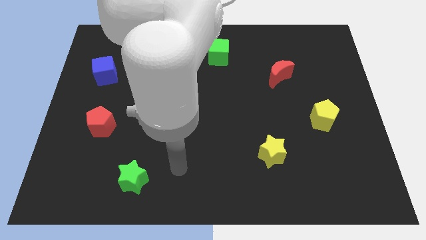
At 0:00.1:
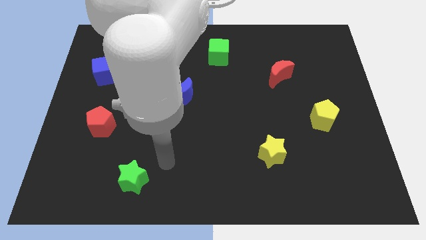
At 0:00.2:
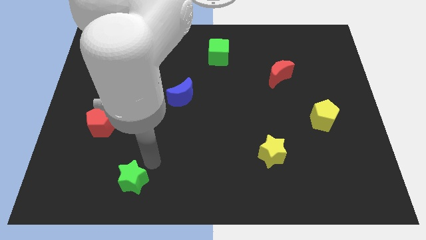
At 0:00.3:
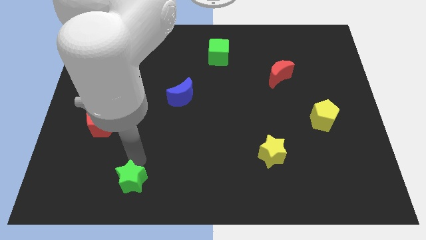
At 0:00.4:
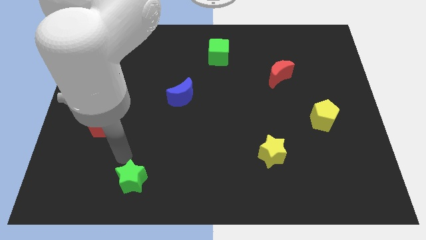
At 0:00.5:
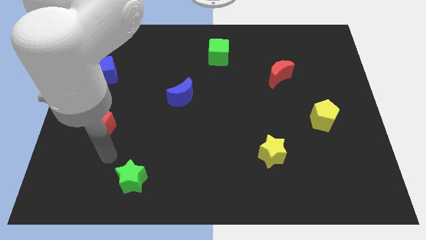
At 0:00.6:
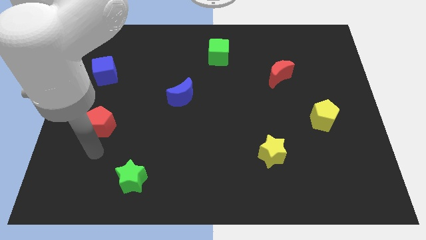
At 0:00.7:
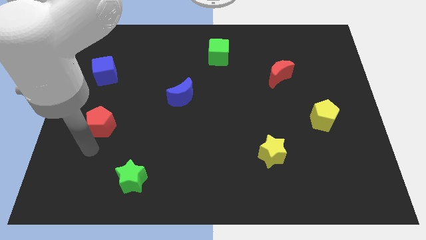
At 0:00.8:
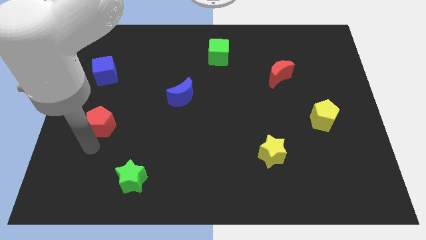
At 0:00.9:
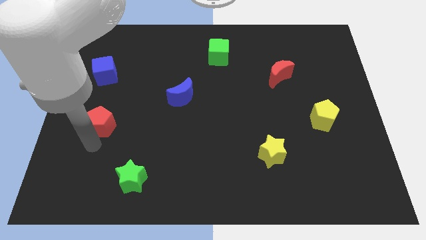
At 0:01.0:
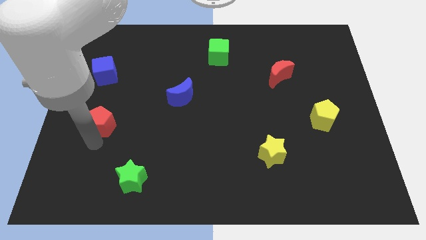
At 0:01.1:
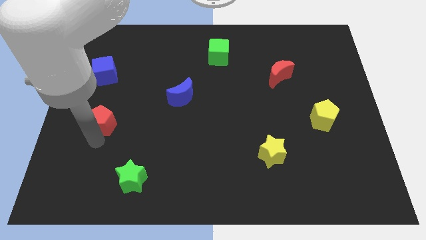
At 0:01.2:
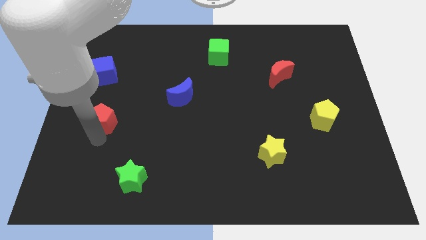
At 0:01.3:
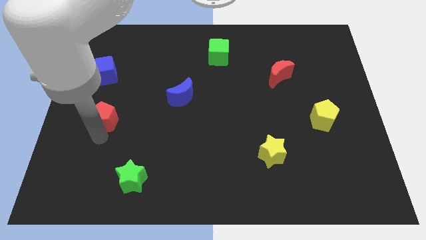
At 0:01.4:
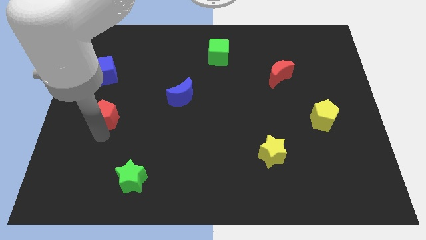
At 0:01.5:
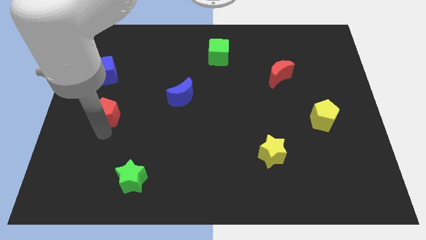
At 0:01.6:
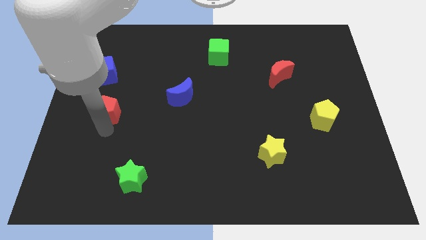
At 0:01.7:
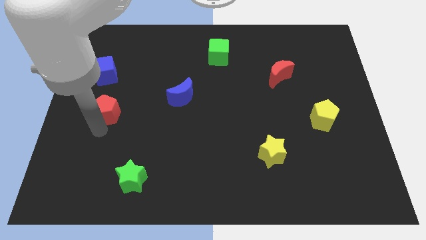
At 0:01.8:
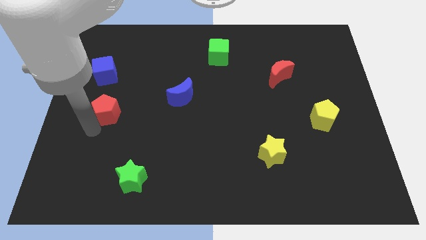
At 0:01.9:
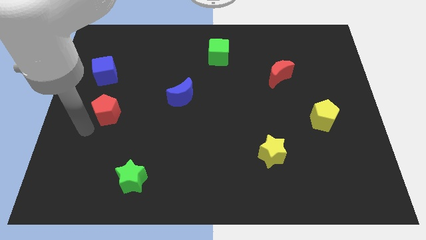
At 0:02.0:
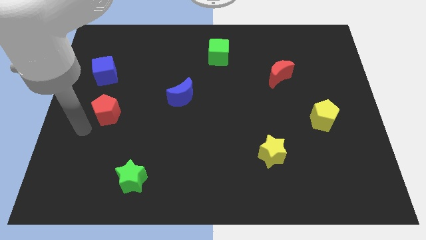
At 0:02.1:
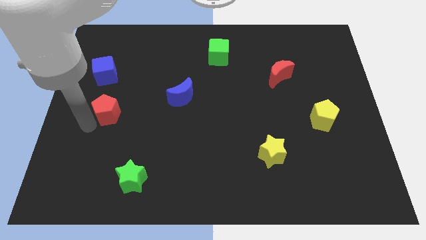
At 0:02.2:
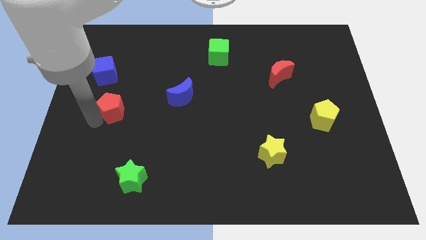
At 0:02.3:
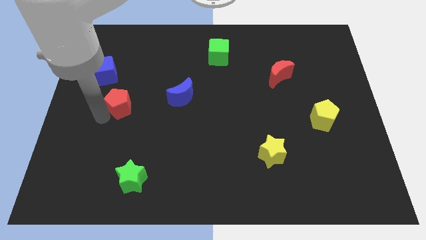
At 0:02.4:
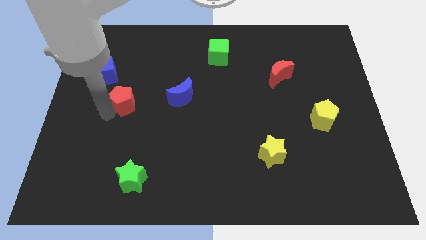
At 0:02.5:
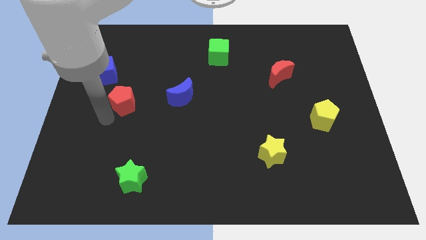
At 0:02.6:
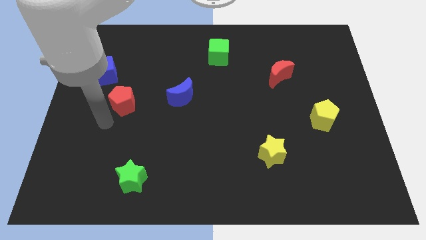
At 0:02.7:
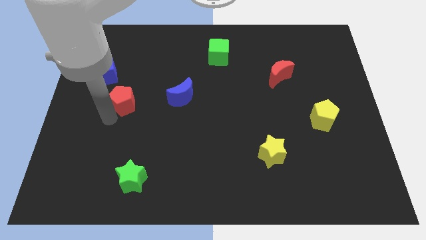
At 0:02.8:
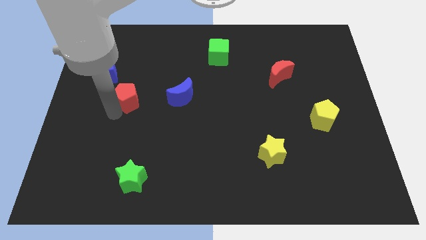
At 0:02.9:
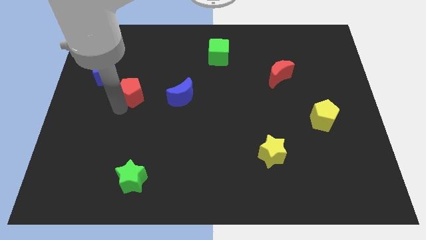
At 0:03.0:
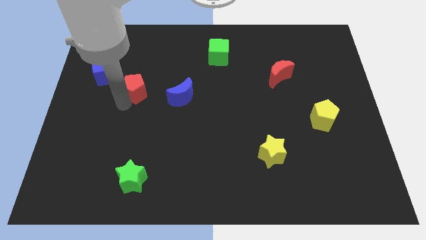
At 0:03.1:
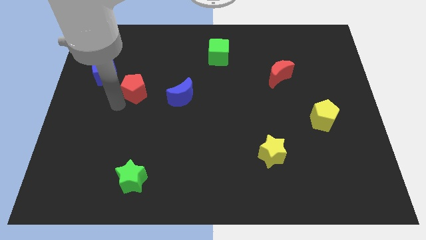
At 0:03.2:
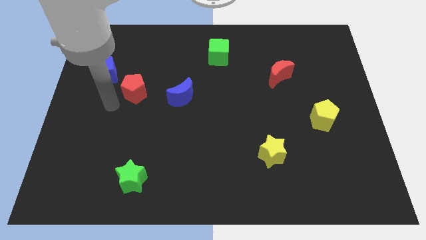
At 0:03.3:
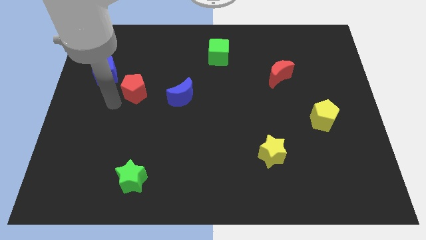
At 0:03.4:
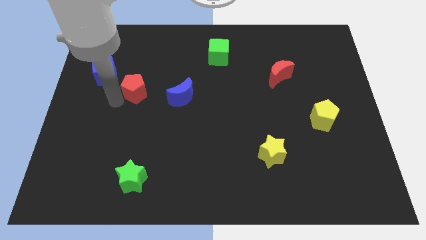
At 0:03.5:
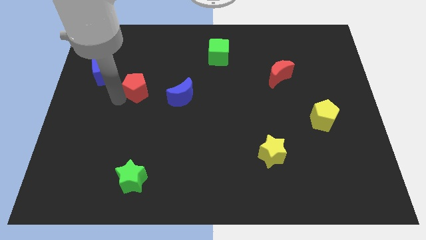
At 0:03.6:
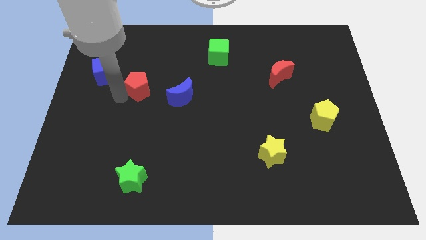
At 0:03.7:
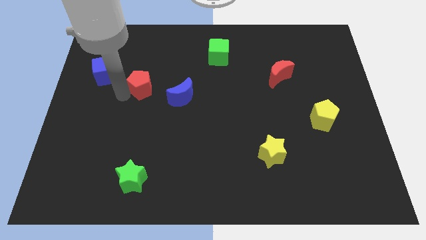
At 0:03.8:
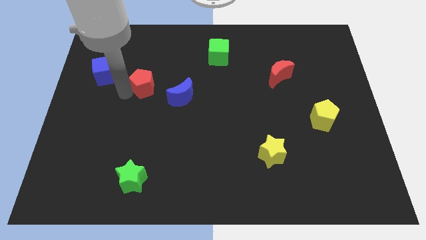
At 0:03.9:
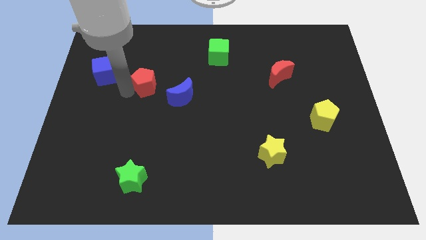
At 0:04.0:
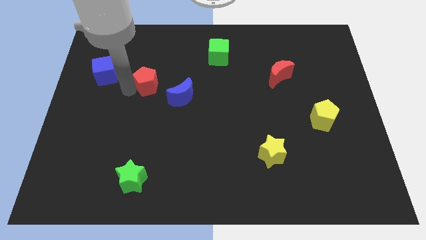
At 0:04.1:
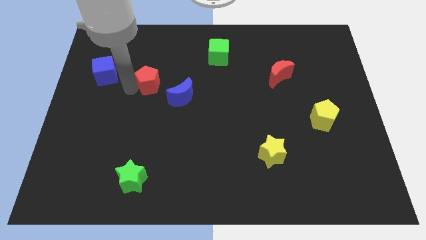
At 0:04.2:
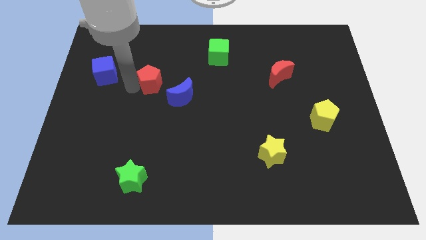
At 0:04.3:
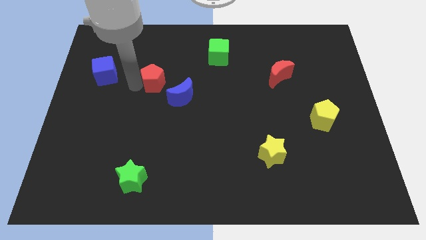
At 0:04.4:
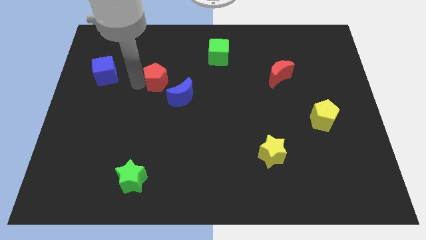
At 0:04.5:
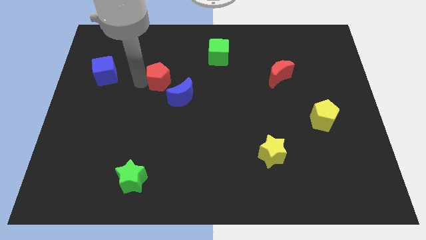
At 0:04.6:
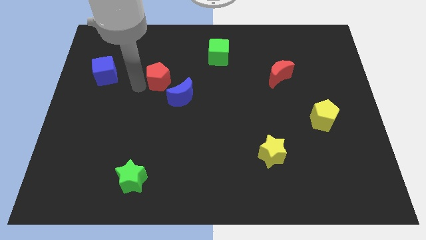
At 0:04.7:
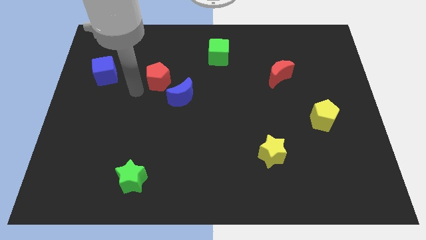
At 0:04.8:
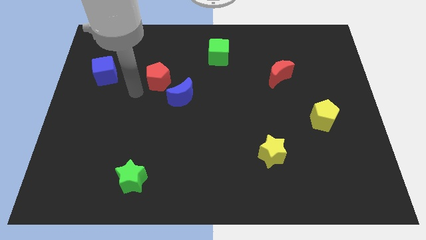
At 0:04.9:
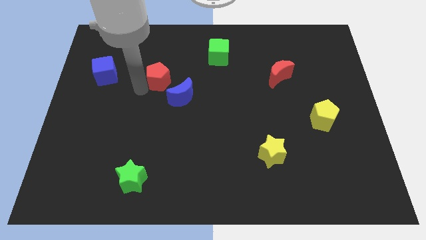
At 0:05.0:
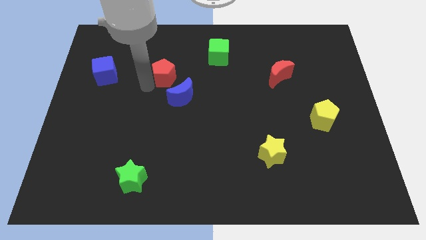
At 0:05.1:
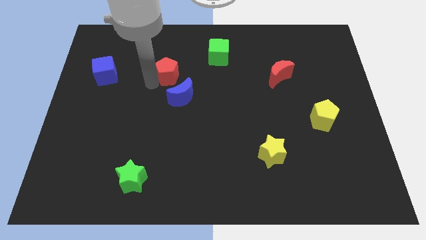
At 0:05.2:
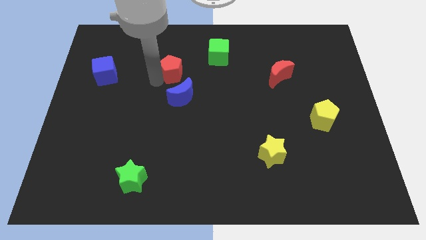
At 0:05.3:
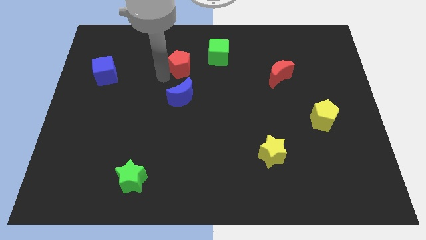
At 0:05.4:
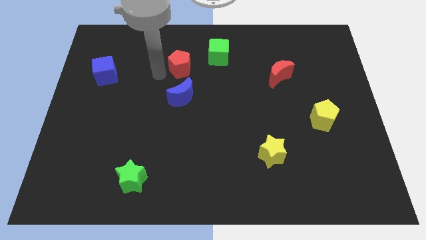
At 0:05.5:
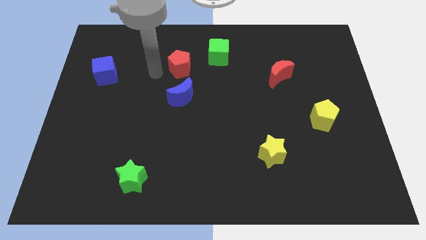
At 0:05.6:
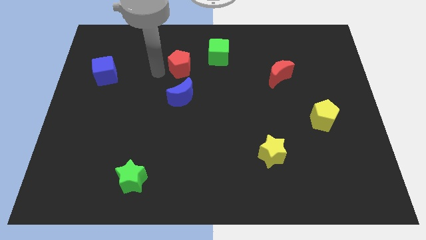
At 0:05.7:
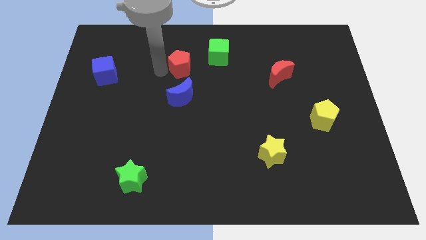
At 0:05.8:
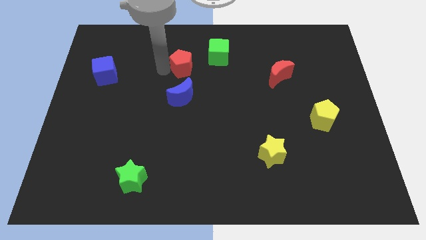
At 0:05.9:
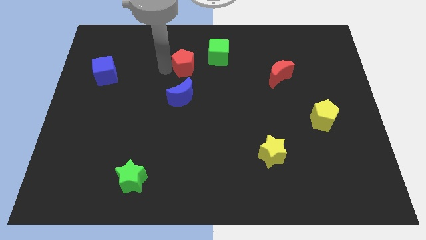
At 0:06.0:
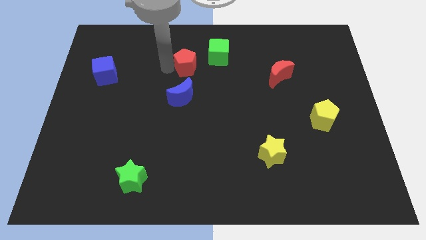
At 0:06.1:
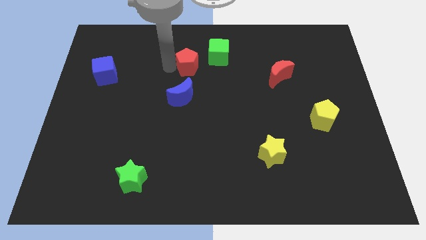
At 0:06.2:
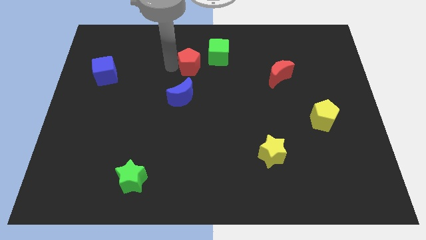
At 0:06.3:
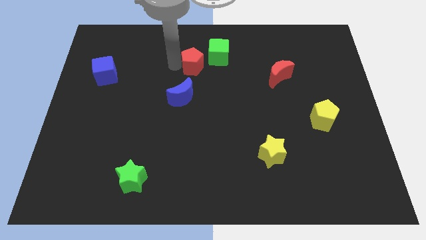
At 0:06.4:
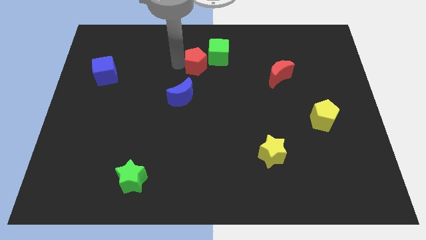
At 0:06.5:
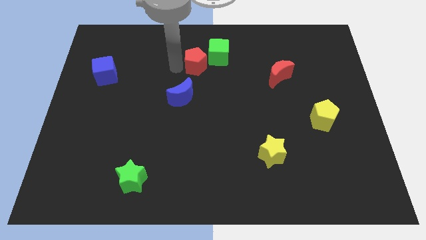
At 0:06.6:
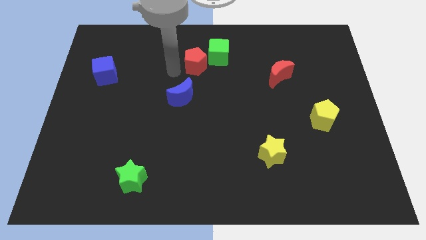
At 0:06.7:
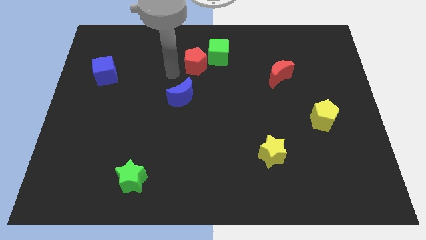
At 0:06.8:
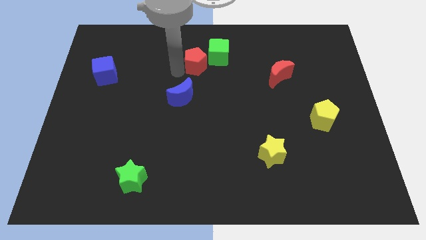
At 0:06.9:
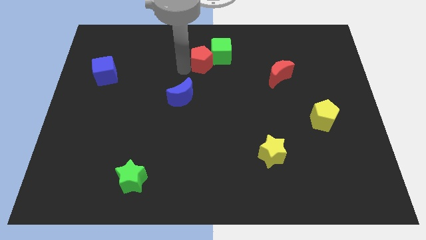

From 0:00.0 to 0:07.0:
slide the red pentagon close to the green cube

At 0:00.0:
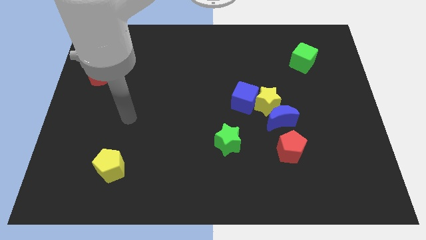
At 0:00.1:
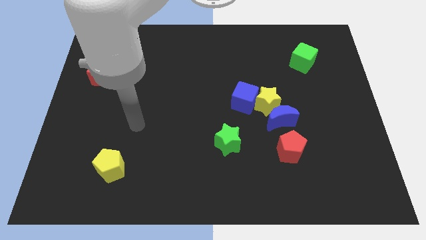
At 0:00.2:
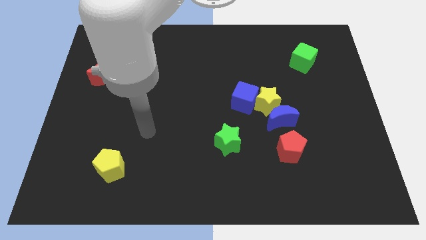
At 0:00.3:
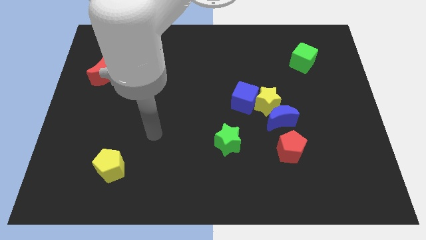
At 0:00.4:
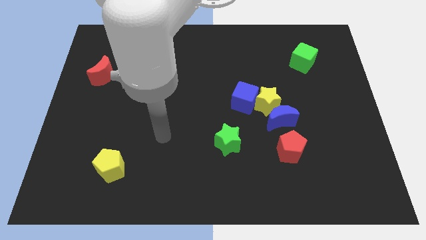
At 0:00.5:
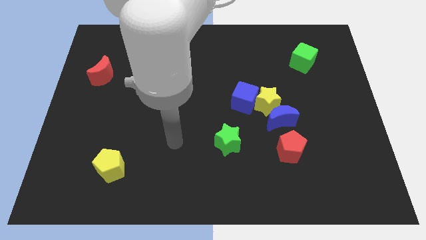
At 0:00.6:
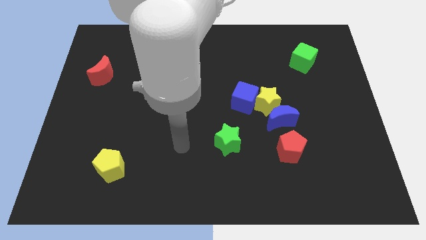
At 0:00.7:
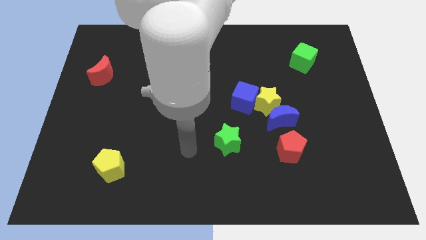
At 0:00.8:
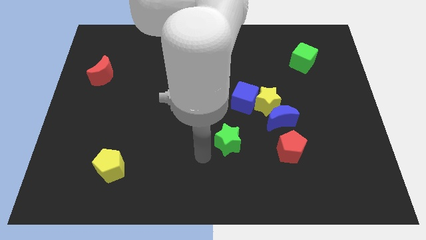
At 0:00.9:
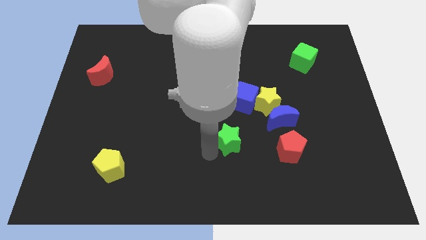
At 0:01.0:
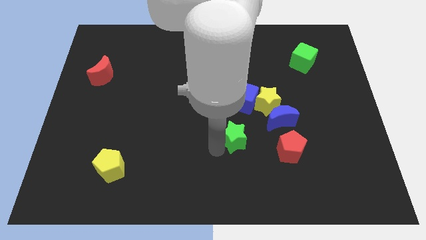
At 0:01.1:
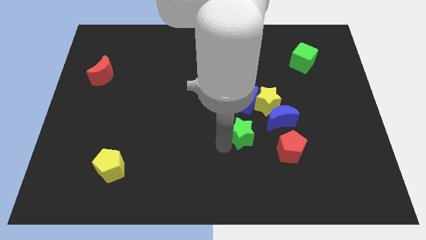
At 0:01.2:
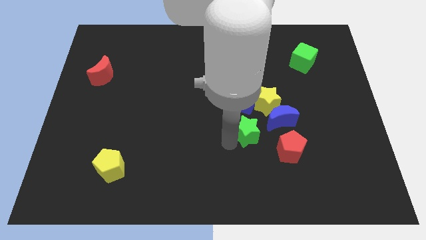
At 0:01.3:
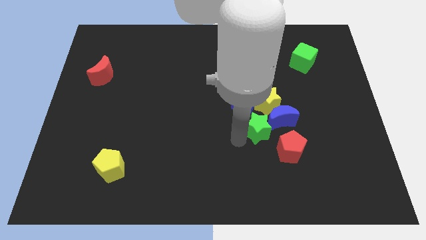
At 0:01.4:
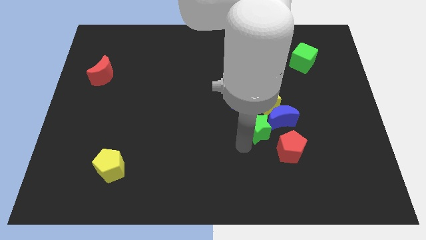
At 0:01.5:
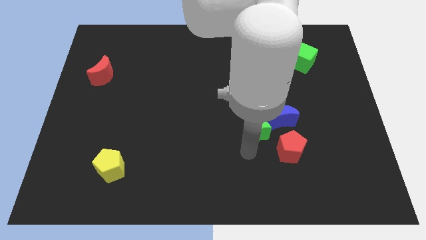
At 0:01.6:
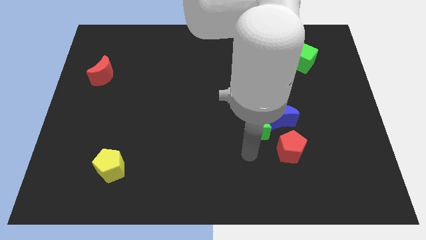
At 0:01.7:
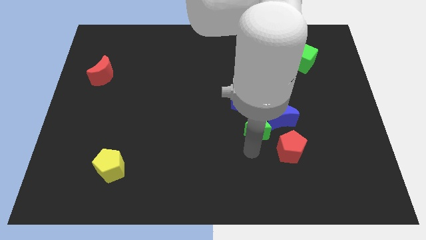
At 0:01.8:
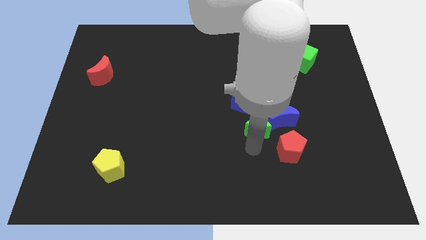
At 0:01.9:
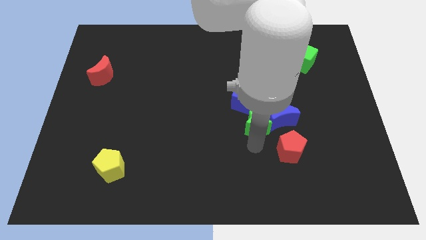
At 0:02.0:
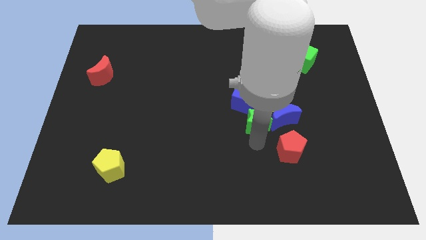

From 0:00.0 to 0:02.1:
put the green star next to the yellow star
